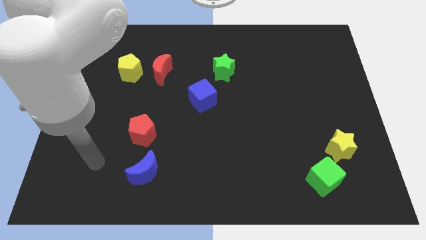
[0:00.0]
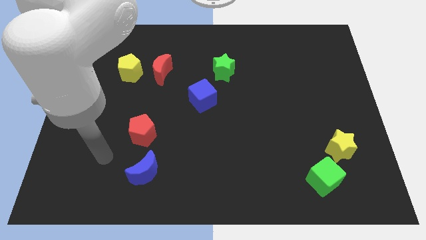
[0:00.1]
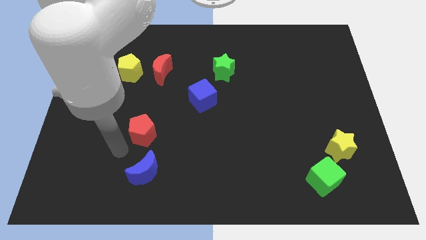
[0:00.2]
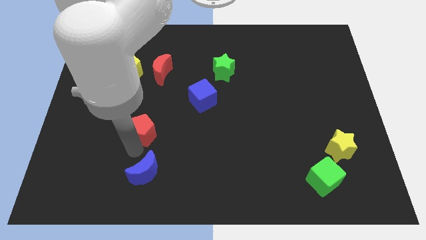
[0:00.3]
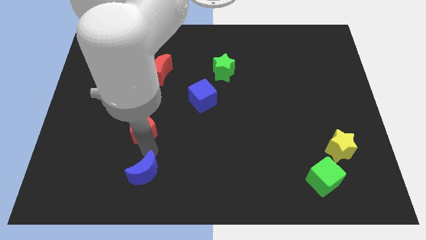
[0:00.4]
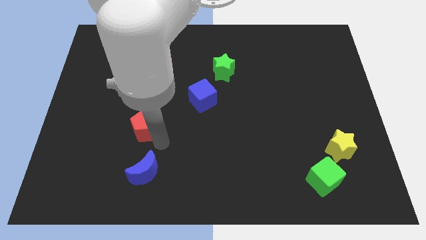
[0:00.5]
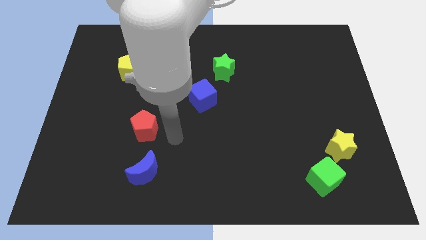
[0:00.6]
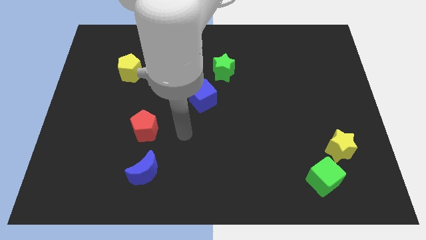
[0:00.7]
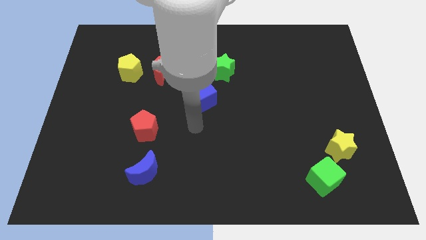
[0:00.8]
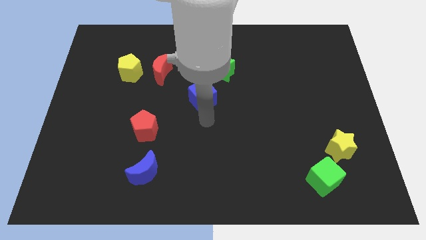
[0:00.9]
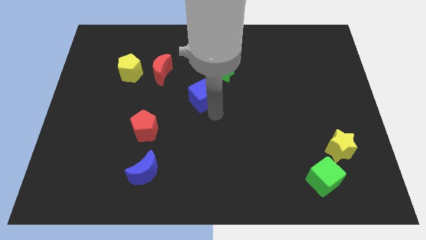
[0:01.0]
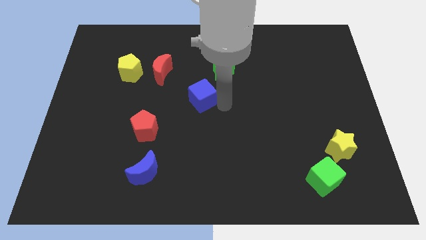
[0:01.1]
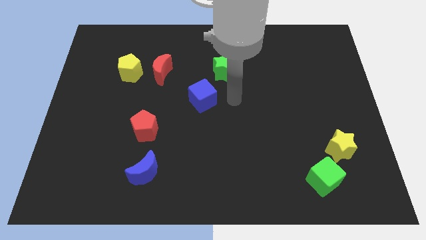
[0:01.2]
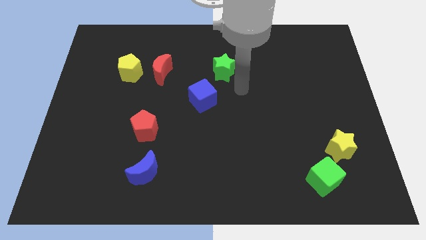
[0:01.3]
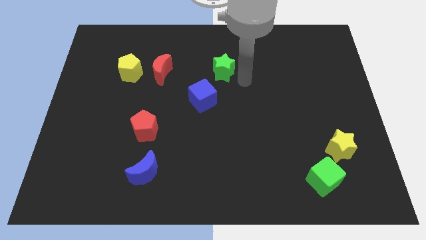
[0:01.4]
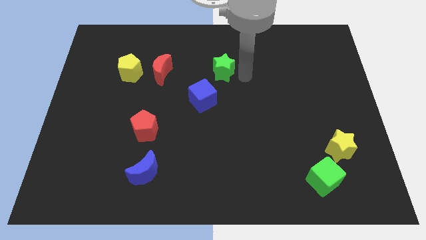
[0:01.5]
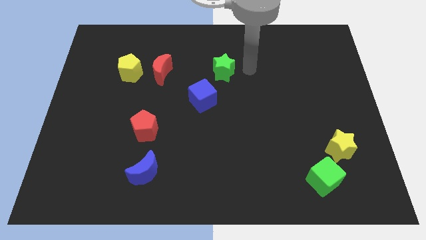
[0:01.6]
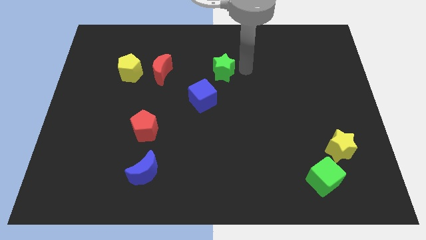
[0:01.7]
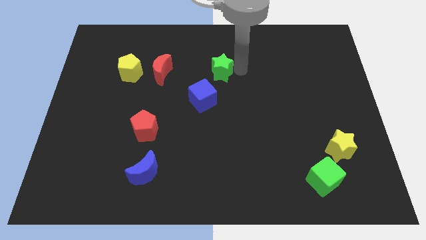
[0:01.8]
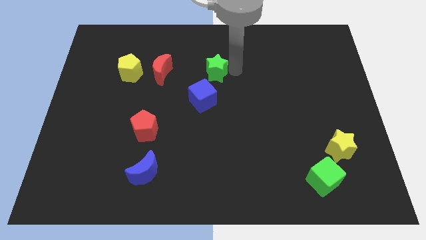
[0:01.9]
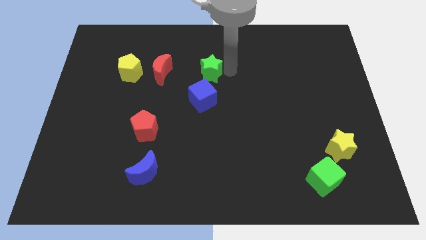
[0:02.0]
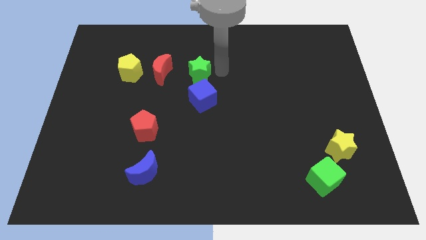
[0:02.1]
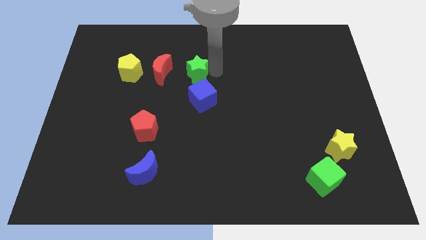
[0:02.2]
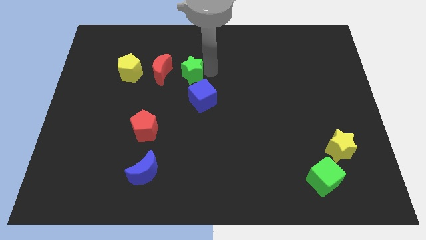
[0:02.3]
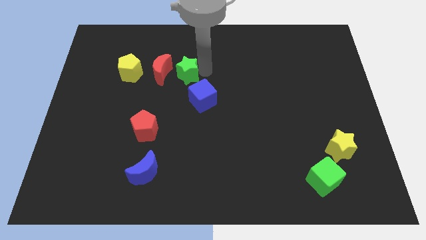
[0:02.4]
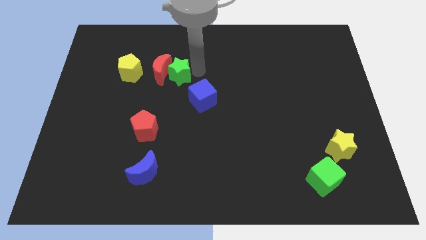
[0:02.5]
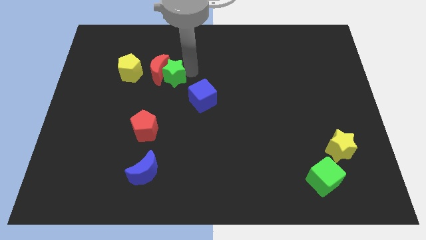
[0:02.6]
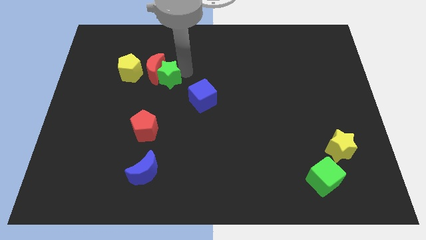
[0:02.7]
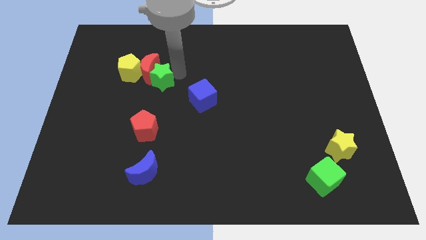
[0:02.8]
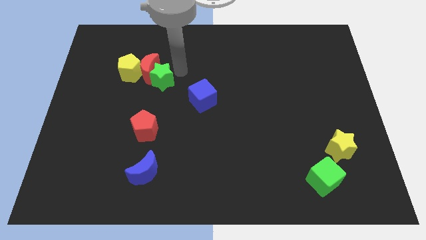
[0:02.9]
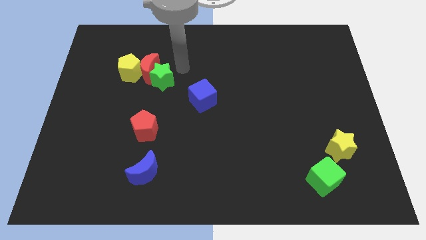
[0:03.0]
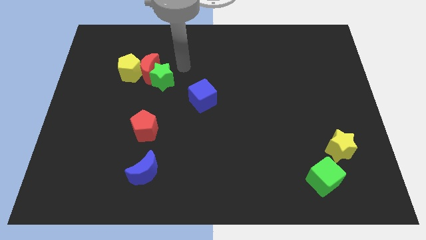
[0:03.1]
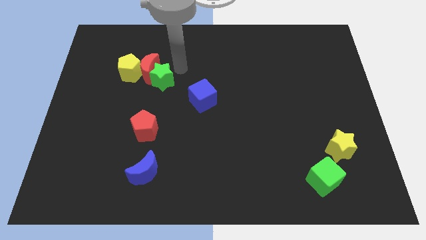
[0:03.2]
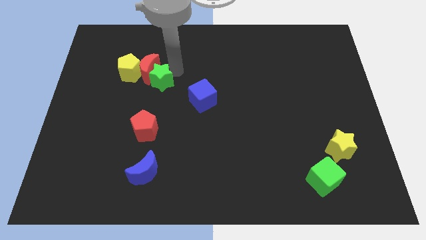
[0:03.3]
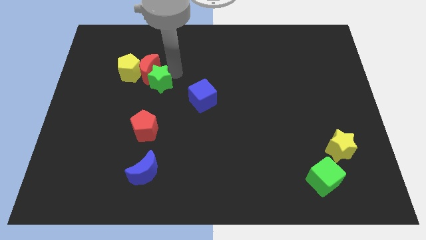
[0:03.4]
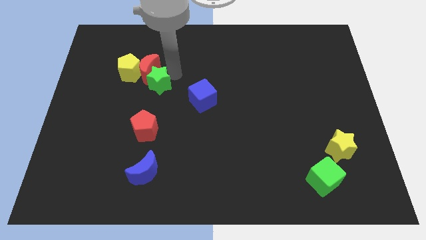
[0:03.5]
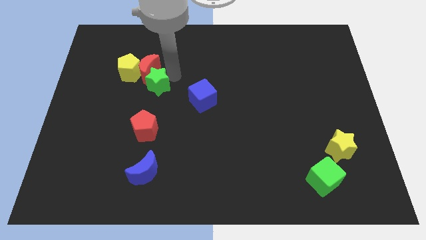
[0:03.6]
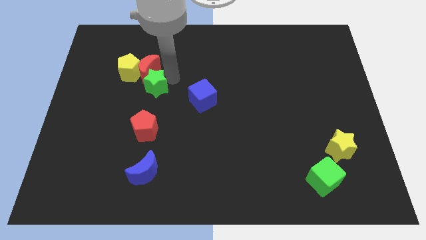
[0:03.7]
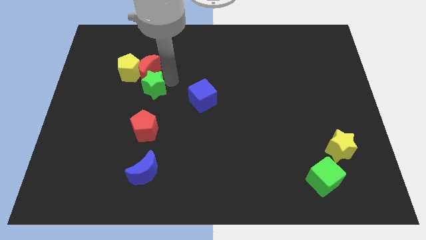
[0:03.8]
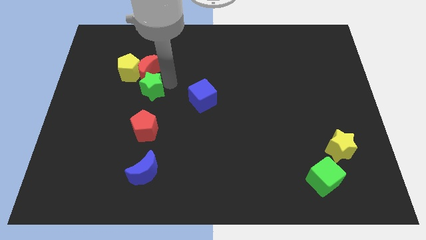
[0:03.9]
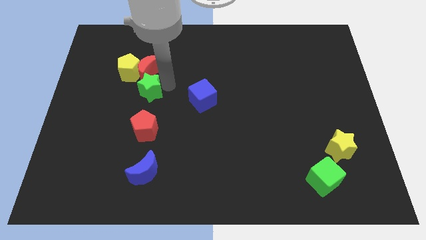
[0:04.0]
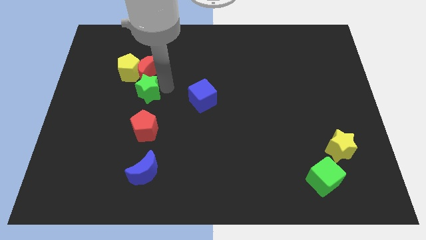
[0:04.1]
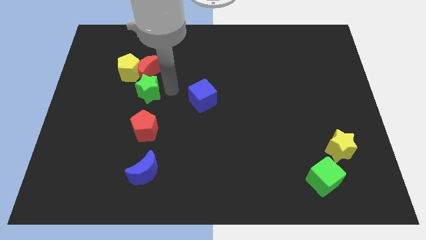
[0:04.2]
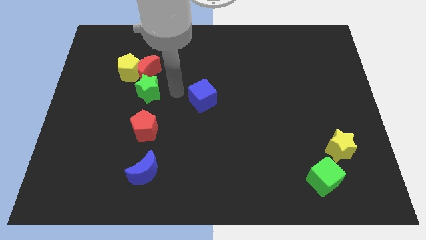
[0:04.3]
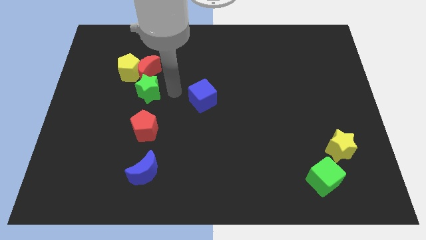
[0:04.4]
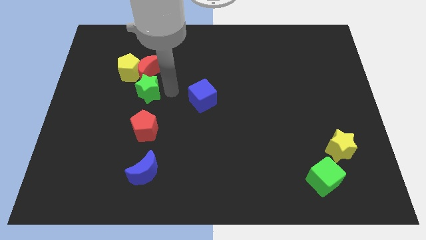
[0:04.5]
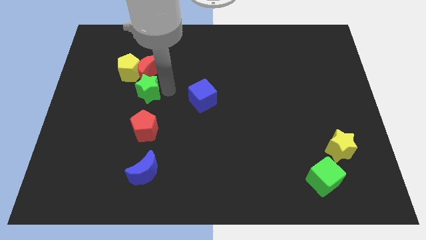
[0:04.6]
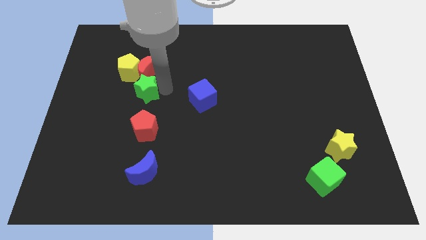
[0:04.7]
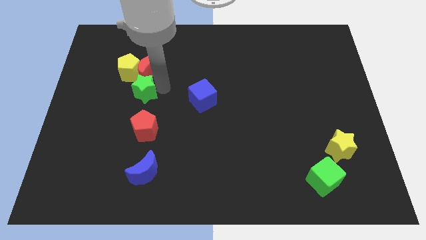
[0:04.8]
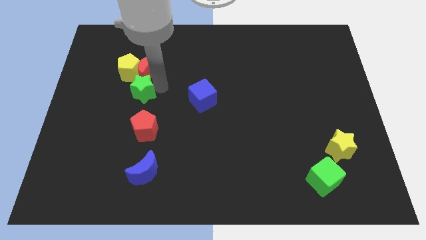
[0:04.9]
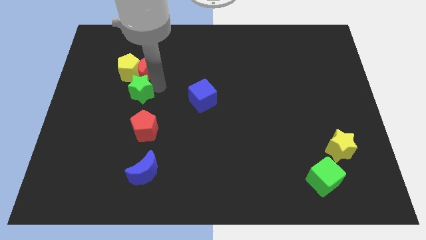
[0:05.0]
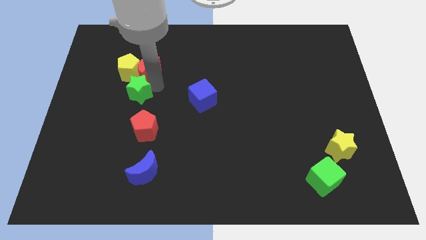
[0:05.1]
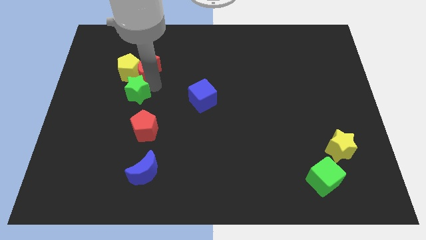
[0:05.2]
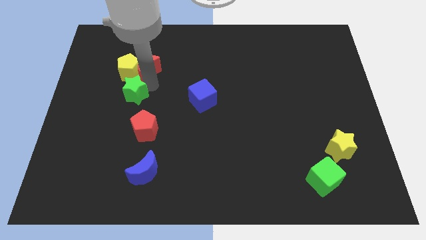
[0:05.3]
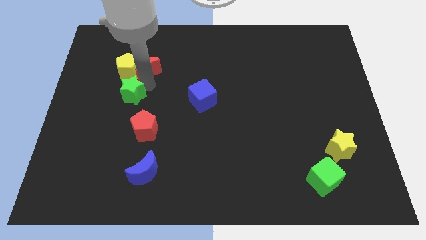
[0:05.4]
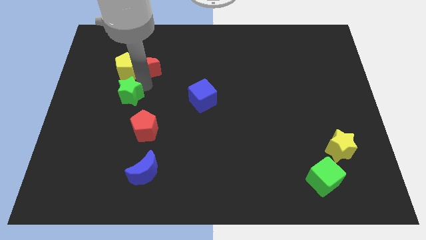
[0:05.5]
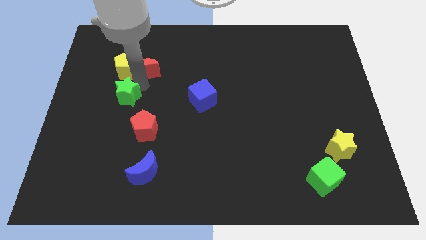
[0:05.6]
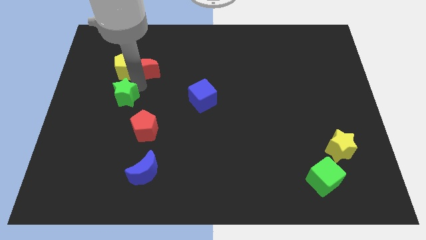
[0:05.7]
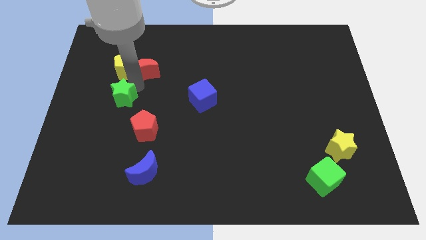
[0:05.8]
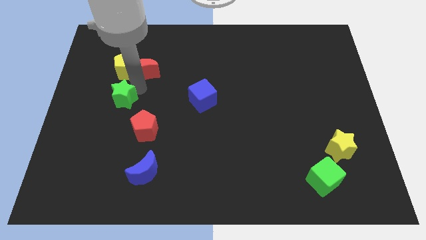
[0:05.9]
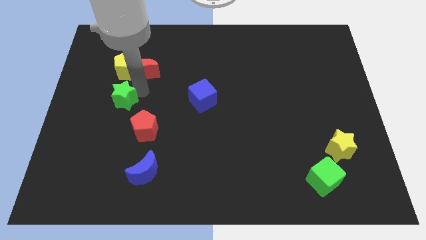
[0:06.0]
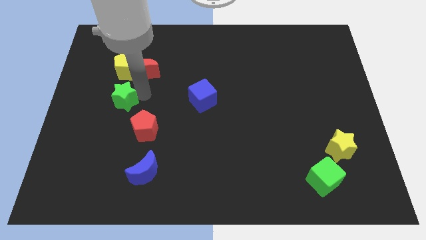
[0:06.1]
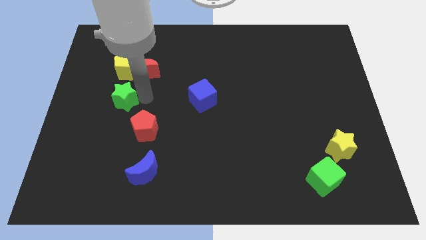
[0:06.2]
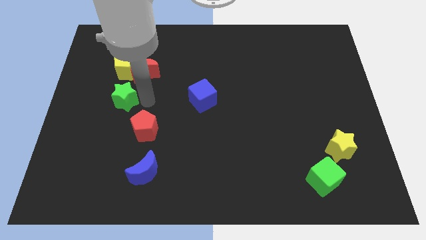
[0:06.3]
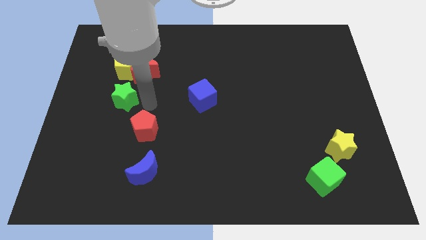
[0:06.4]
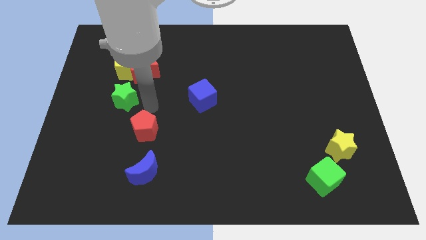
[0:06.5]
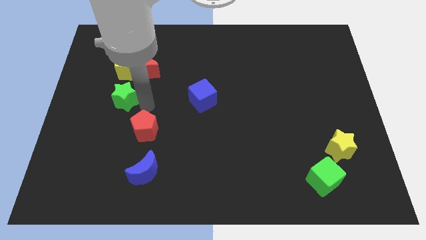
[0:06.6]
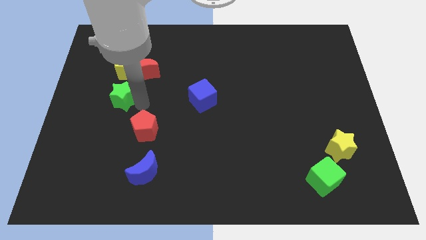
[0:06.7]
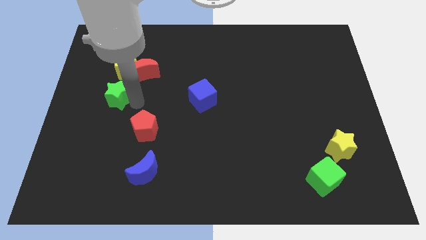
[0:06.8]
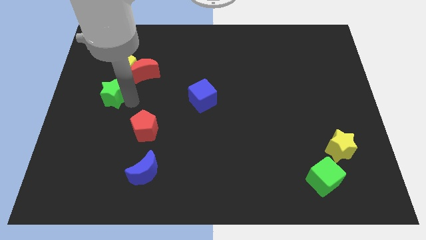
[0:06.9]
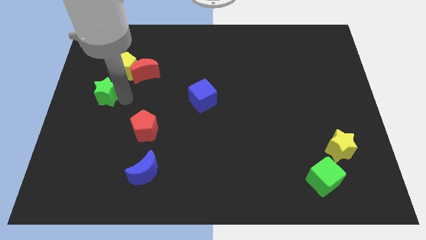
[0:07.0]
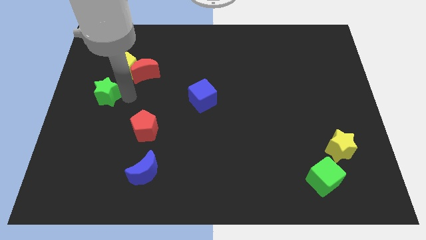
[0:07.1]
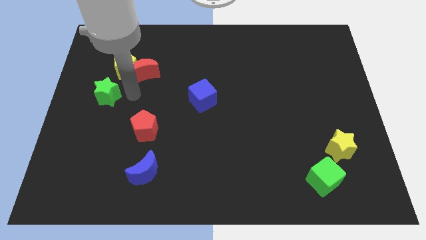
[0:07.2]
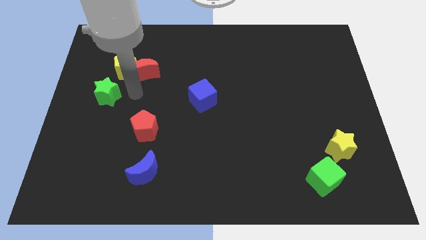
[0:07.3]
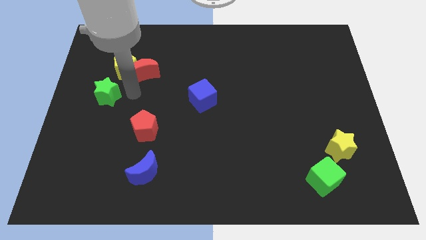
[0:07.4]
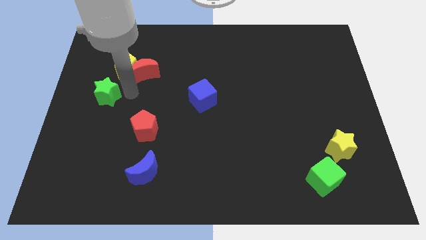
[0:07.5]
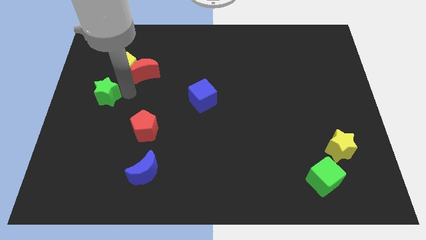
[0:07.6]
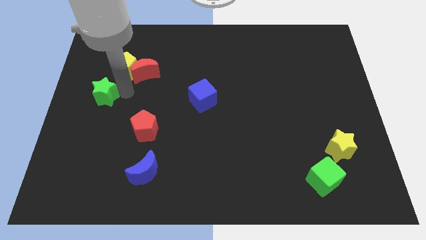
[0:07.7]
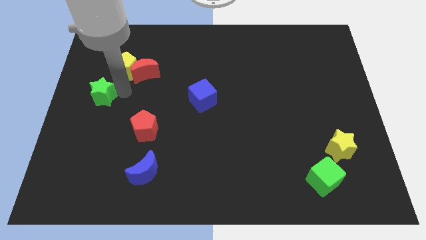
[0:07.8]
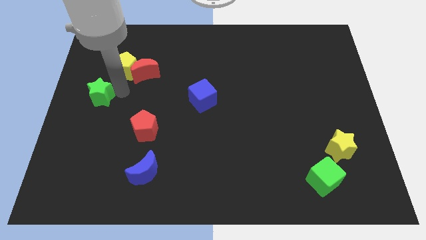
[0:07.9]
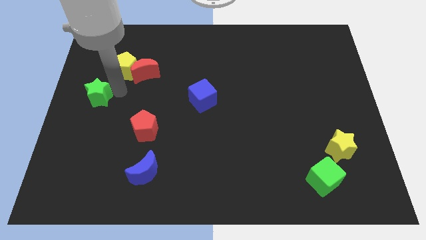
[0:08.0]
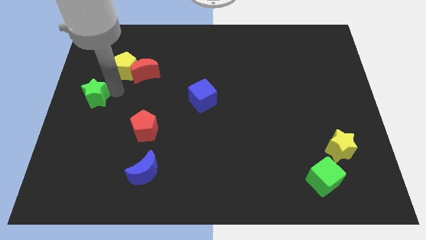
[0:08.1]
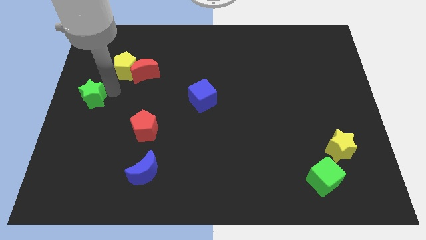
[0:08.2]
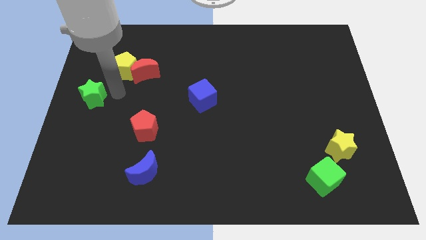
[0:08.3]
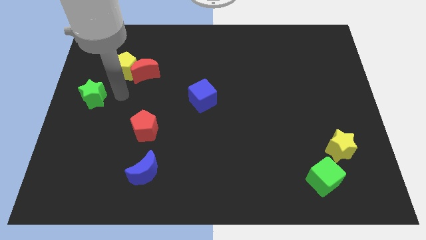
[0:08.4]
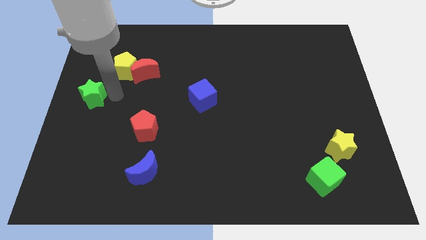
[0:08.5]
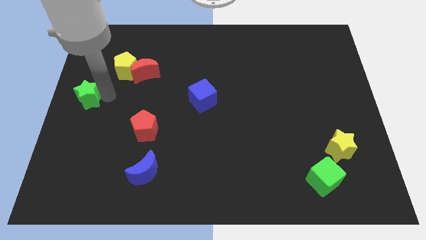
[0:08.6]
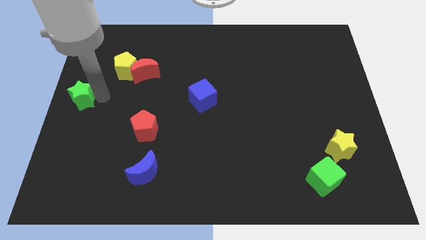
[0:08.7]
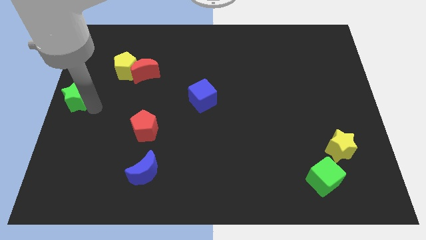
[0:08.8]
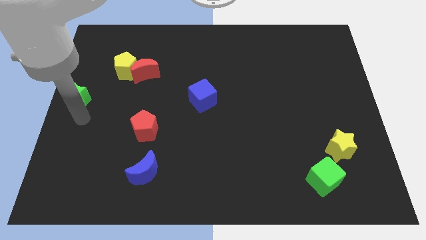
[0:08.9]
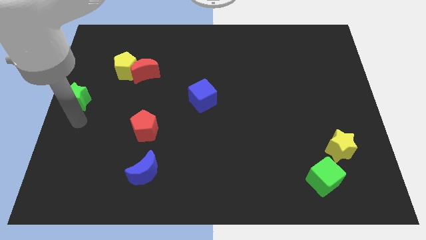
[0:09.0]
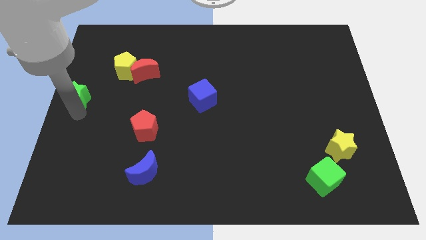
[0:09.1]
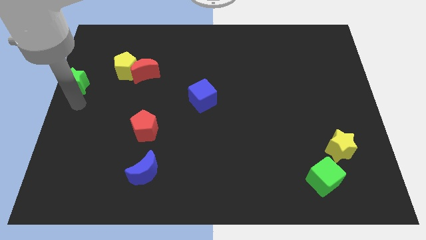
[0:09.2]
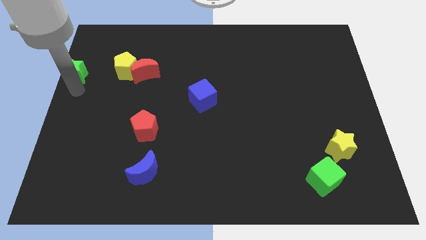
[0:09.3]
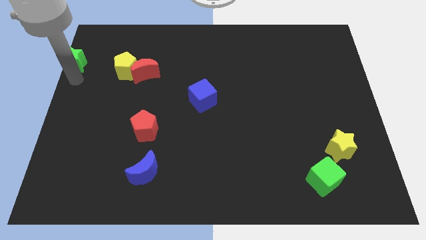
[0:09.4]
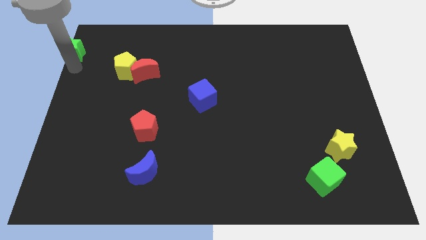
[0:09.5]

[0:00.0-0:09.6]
move the green star to the top left of the board
